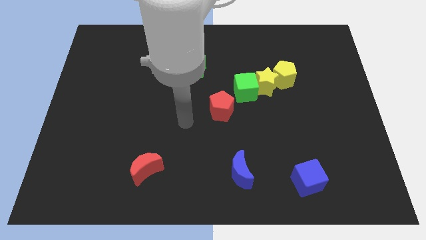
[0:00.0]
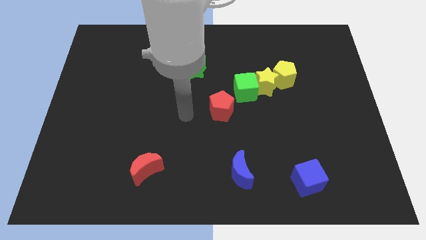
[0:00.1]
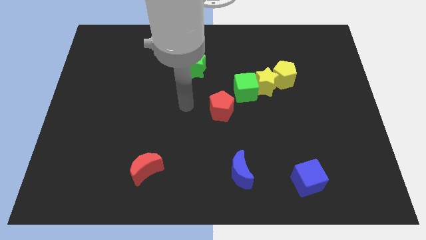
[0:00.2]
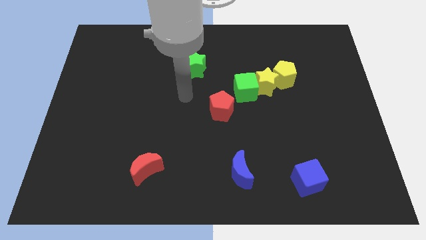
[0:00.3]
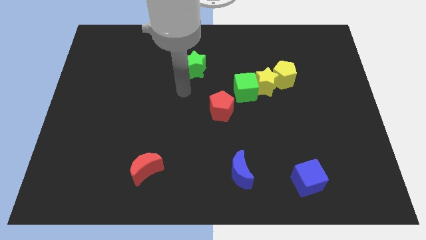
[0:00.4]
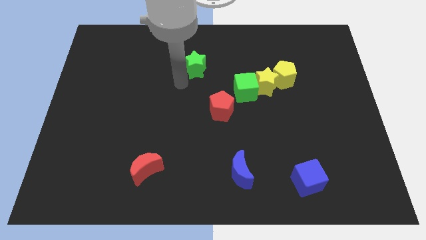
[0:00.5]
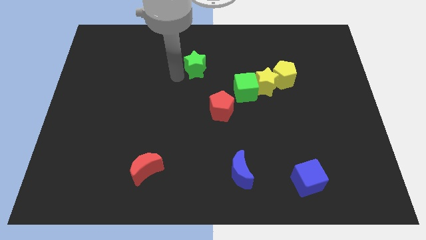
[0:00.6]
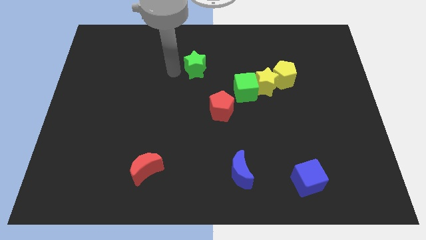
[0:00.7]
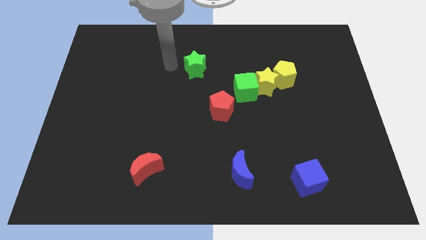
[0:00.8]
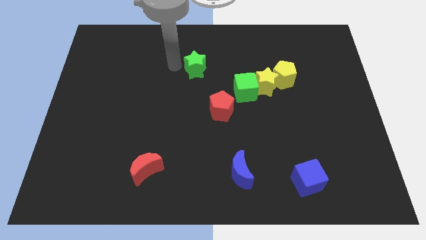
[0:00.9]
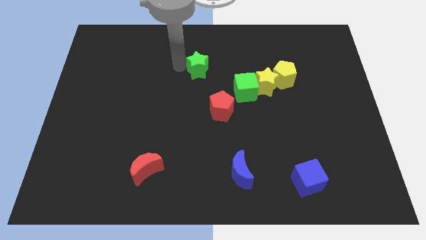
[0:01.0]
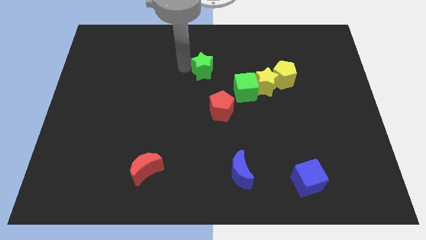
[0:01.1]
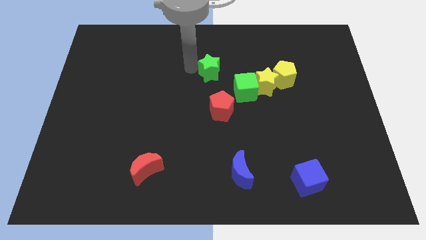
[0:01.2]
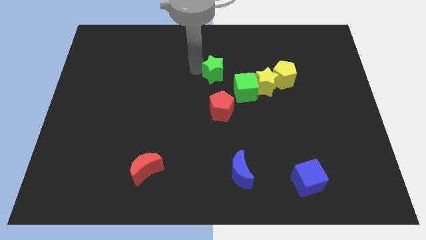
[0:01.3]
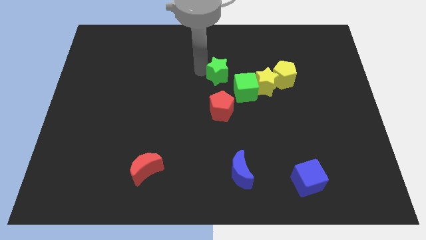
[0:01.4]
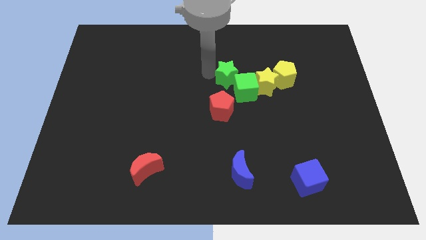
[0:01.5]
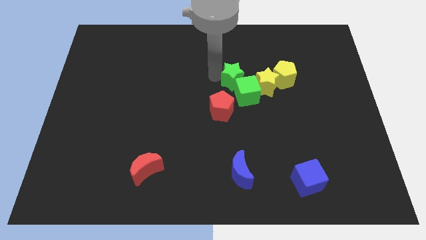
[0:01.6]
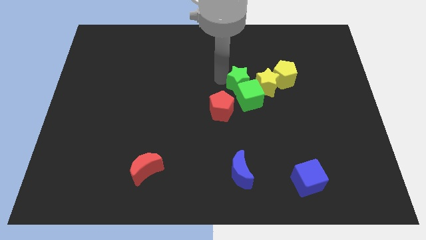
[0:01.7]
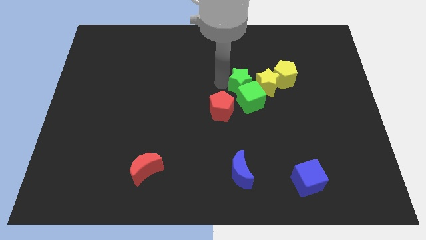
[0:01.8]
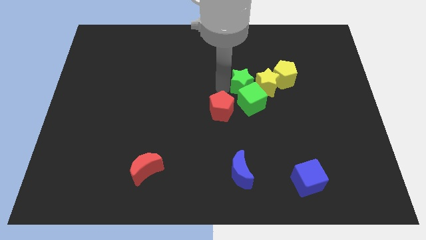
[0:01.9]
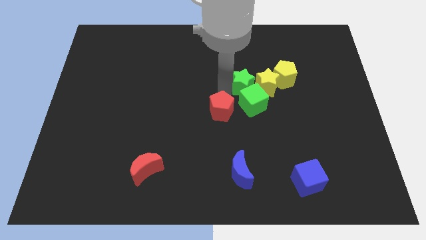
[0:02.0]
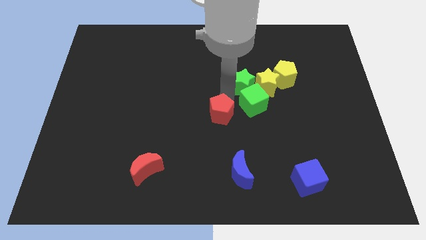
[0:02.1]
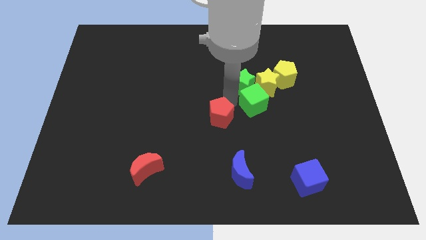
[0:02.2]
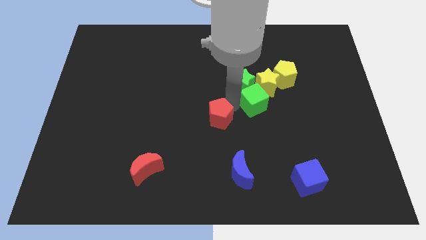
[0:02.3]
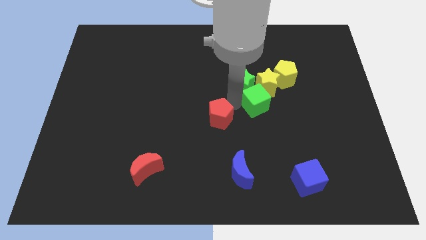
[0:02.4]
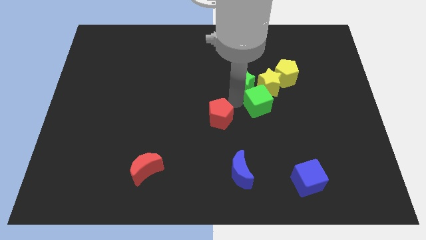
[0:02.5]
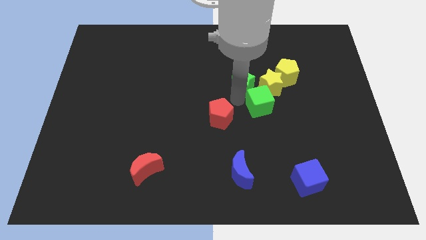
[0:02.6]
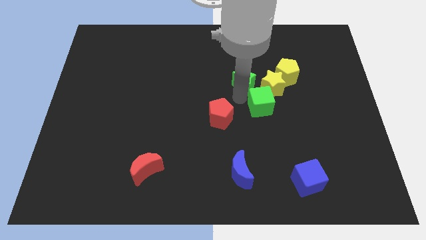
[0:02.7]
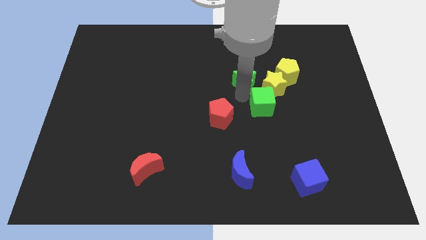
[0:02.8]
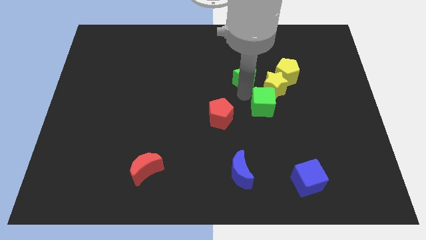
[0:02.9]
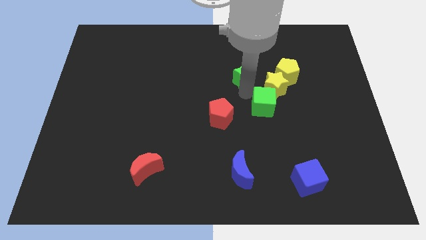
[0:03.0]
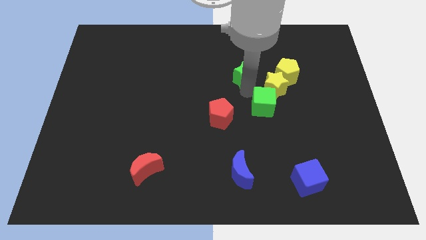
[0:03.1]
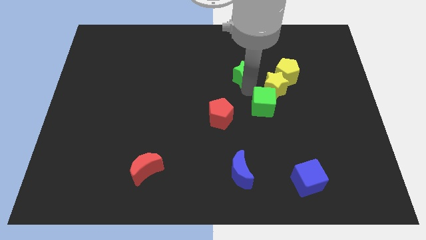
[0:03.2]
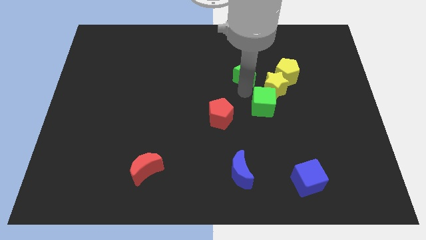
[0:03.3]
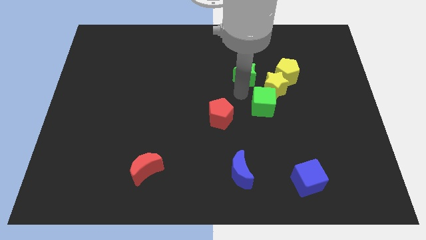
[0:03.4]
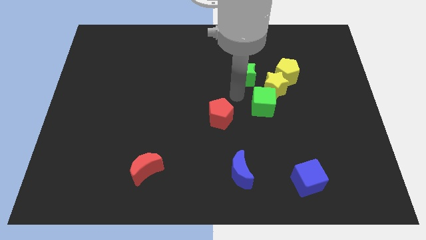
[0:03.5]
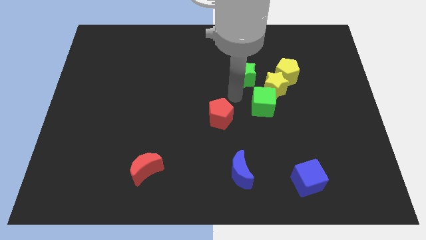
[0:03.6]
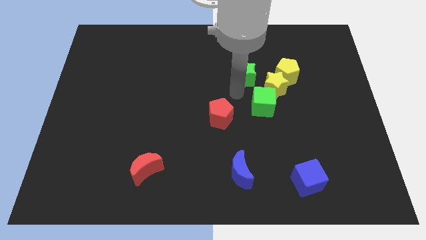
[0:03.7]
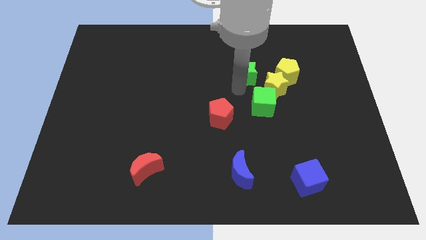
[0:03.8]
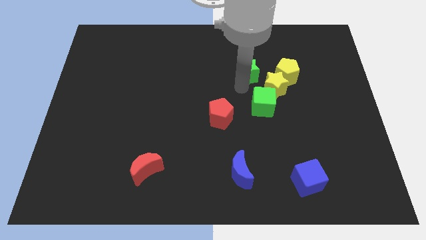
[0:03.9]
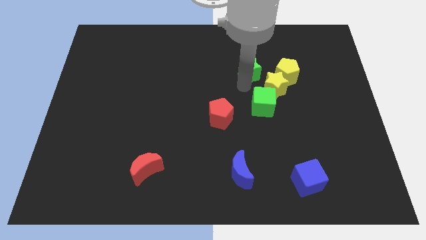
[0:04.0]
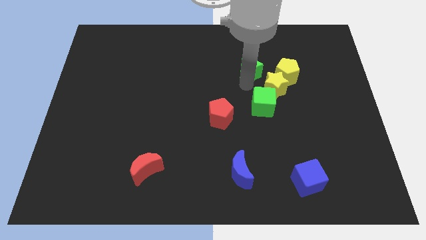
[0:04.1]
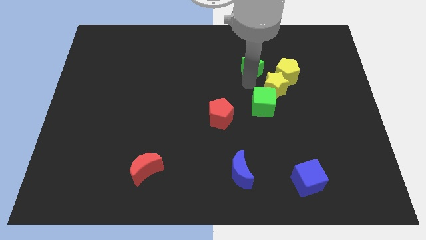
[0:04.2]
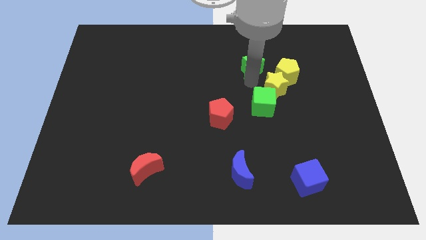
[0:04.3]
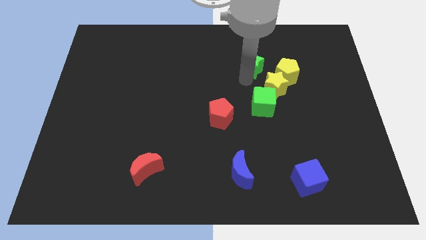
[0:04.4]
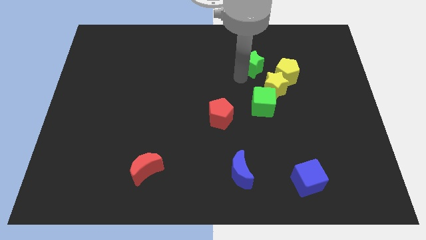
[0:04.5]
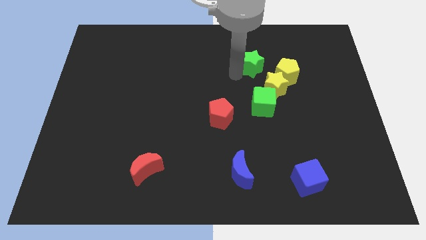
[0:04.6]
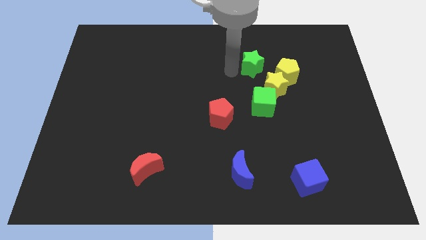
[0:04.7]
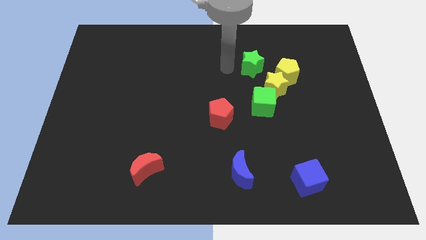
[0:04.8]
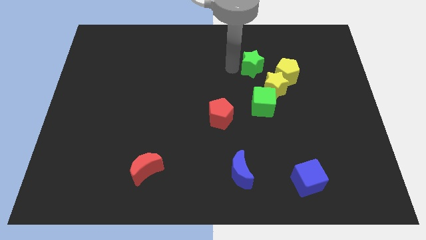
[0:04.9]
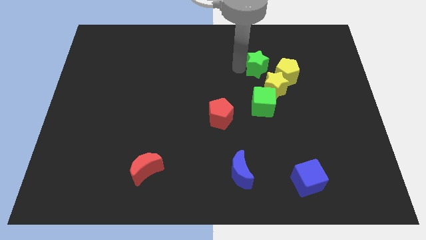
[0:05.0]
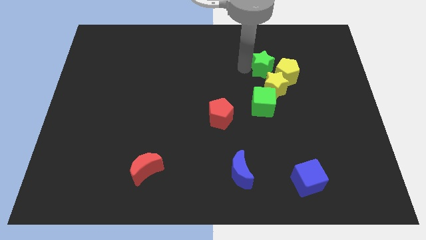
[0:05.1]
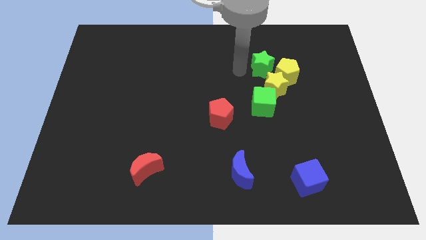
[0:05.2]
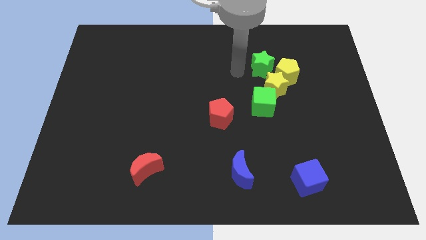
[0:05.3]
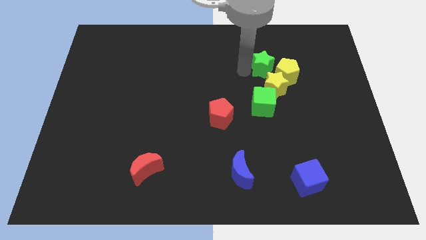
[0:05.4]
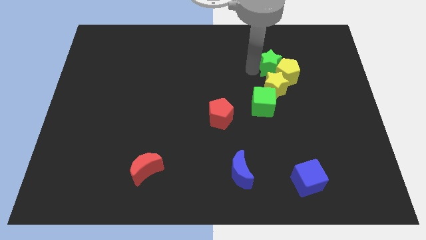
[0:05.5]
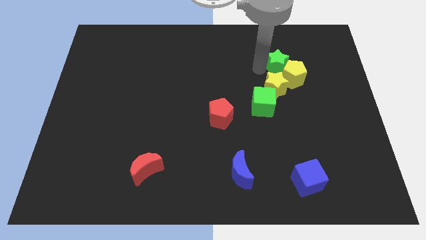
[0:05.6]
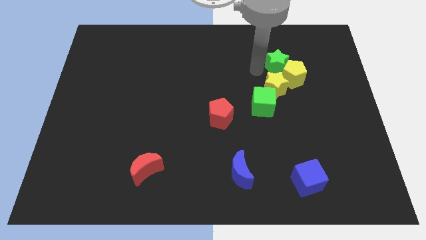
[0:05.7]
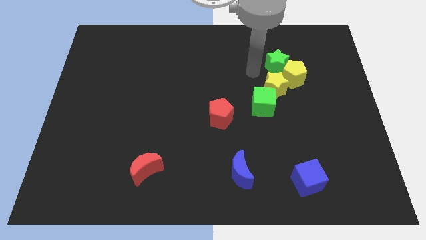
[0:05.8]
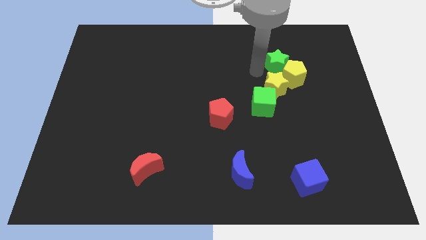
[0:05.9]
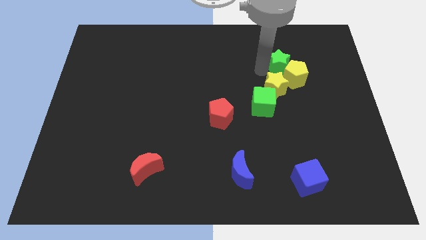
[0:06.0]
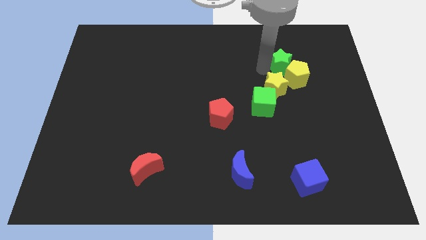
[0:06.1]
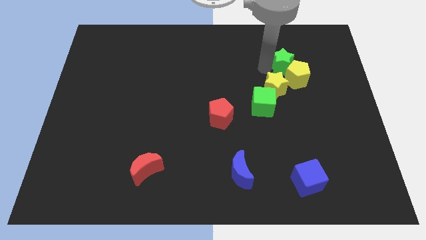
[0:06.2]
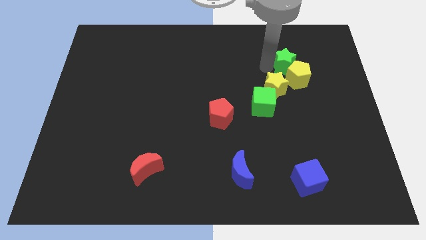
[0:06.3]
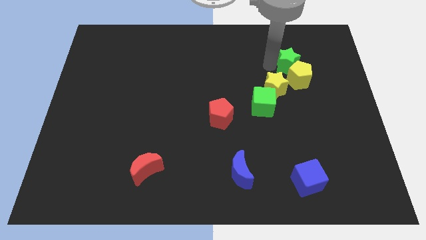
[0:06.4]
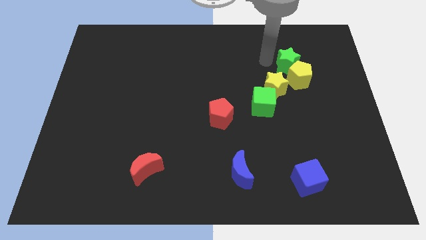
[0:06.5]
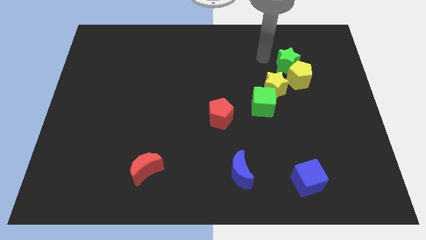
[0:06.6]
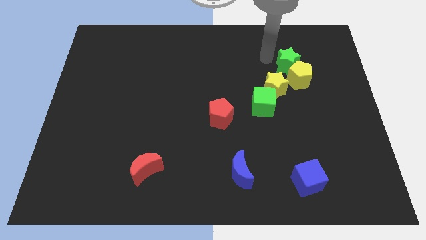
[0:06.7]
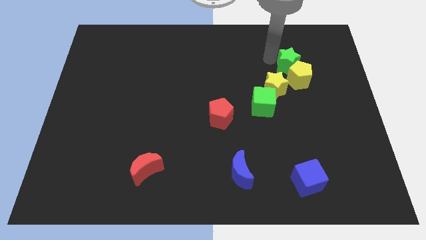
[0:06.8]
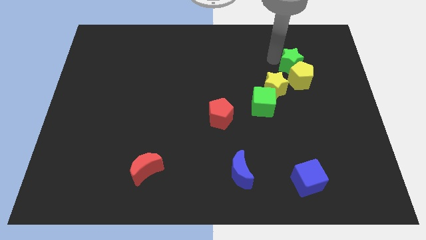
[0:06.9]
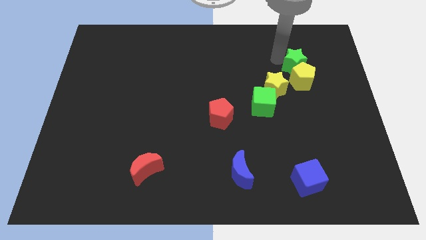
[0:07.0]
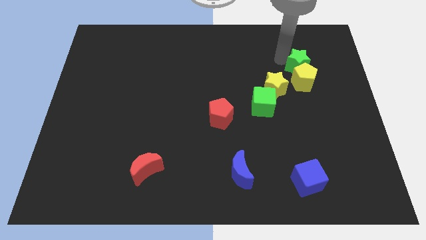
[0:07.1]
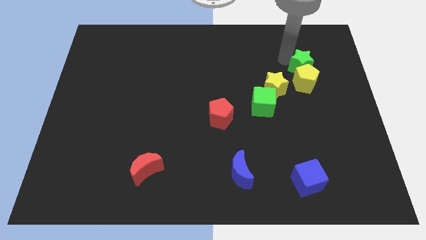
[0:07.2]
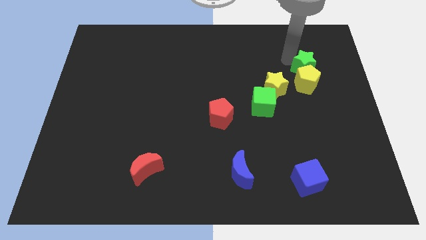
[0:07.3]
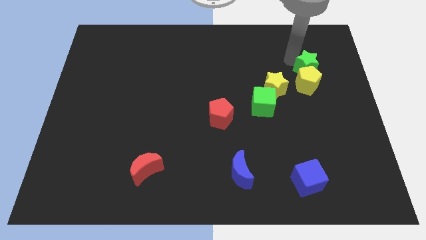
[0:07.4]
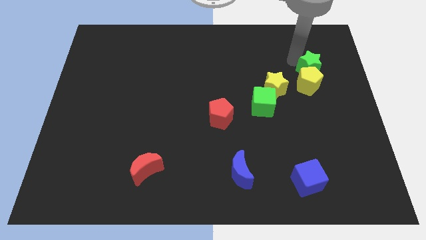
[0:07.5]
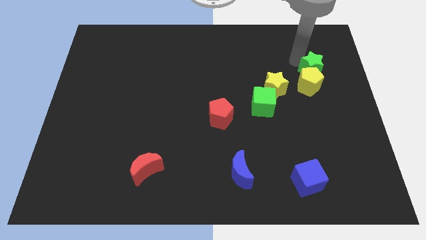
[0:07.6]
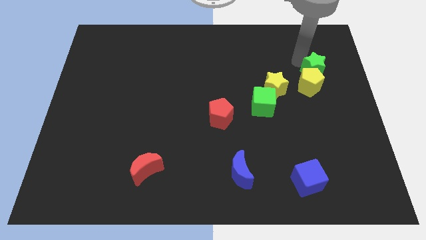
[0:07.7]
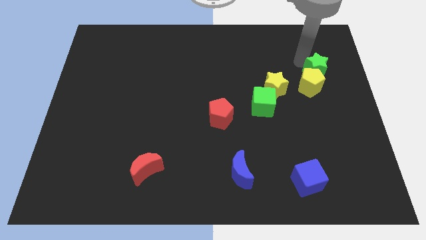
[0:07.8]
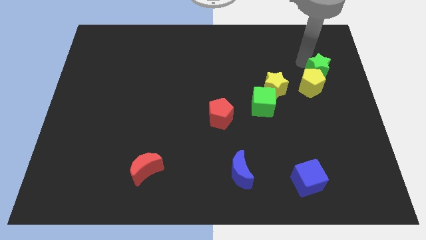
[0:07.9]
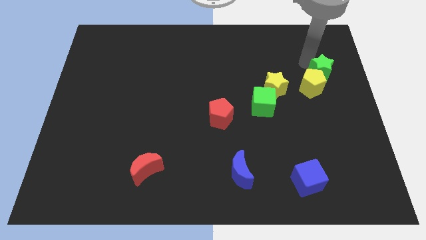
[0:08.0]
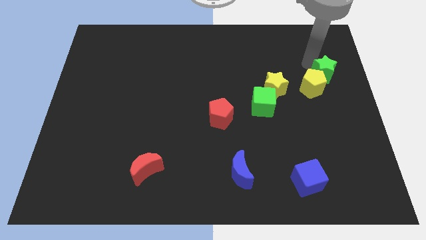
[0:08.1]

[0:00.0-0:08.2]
put the green star to the center right
